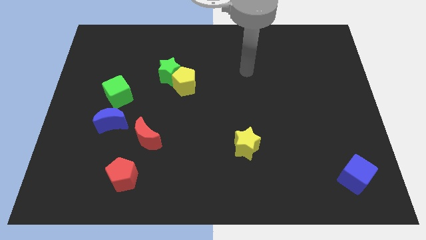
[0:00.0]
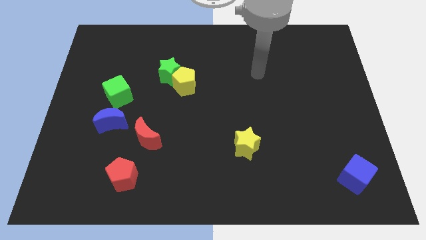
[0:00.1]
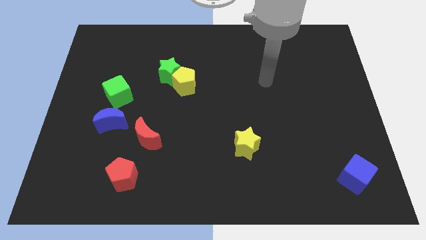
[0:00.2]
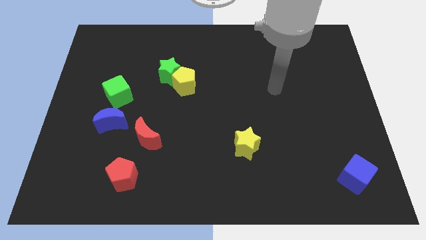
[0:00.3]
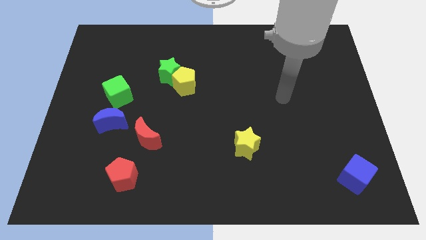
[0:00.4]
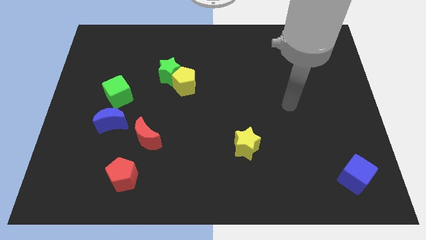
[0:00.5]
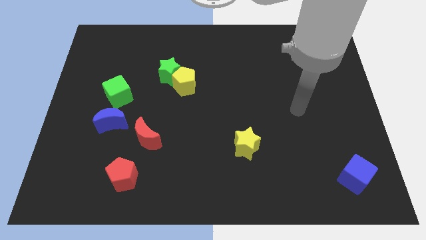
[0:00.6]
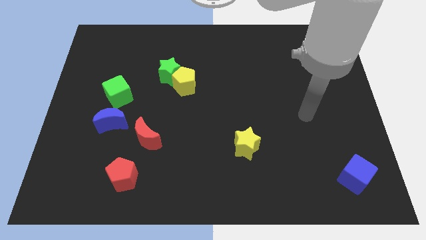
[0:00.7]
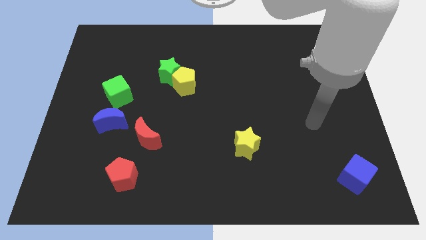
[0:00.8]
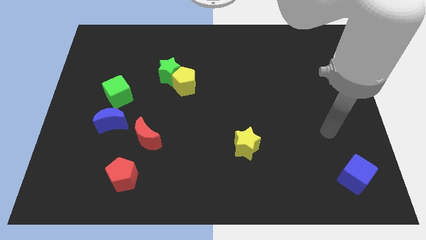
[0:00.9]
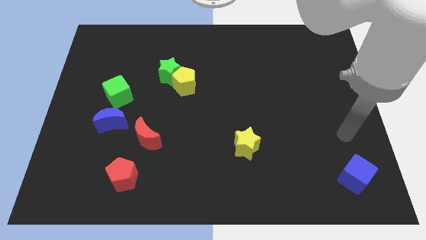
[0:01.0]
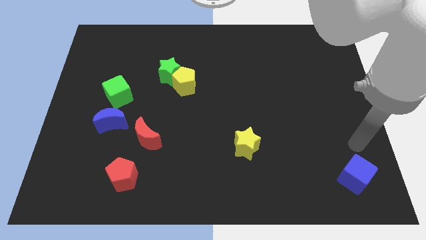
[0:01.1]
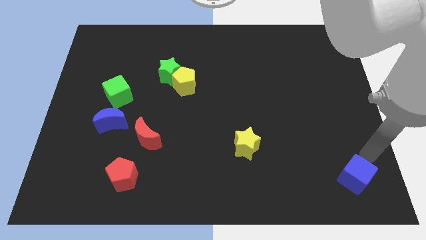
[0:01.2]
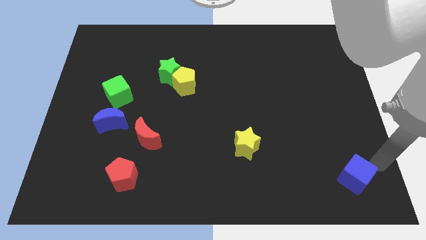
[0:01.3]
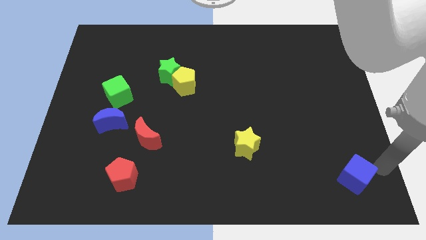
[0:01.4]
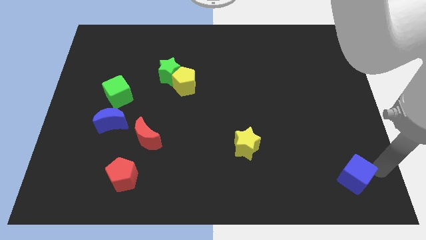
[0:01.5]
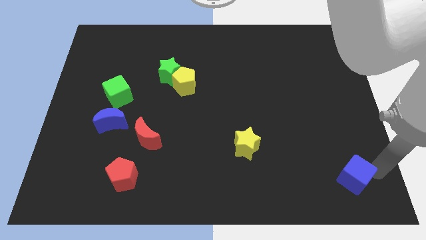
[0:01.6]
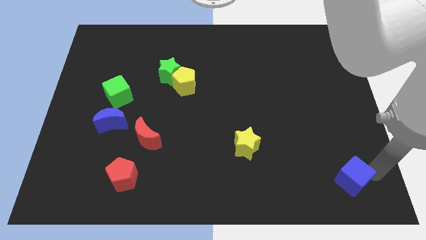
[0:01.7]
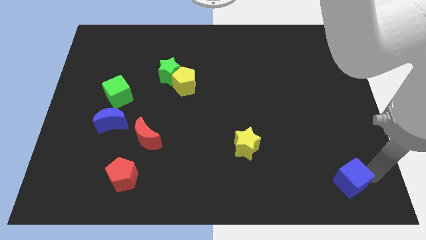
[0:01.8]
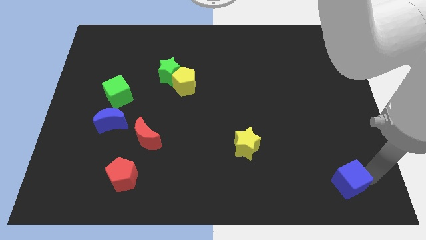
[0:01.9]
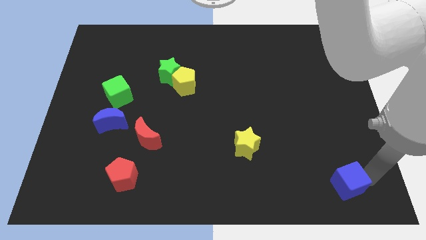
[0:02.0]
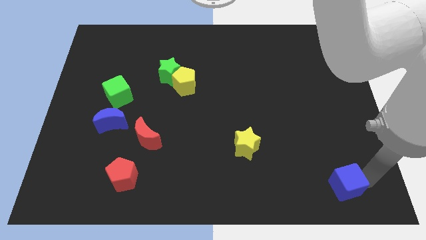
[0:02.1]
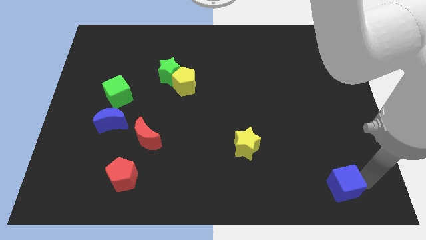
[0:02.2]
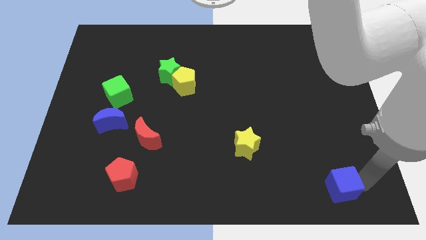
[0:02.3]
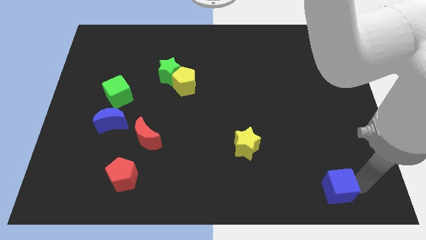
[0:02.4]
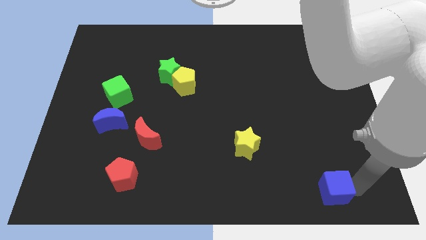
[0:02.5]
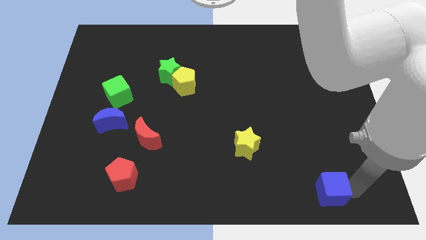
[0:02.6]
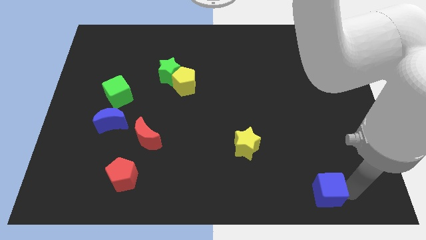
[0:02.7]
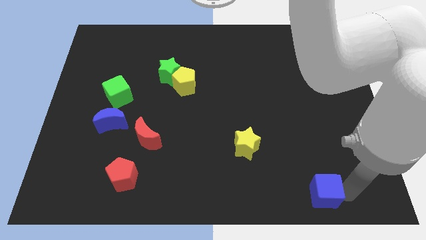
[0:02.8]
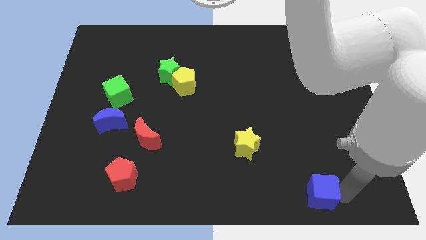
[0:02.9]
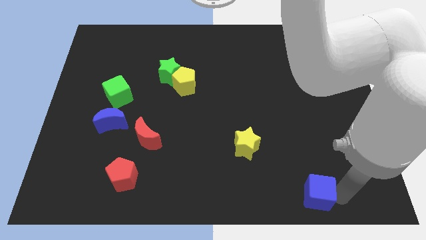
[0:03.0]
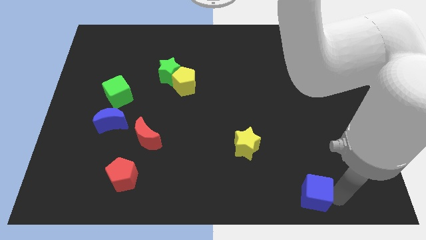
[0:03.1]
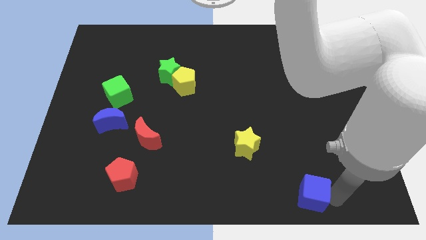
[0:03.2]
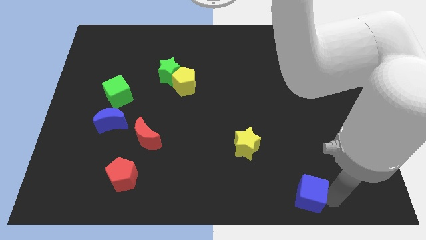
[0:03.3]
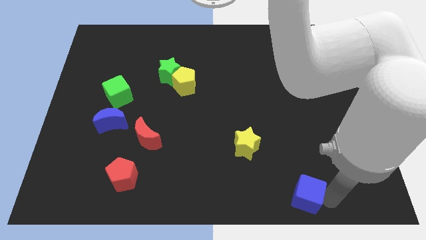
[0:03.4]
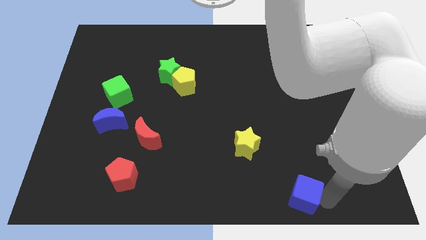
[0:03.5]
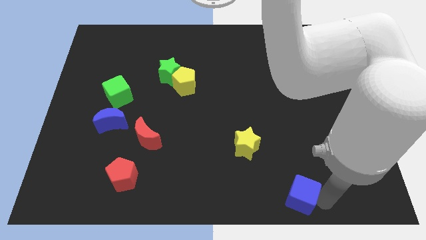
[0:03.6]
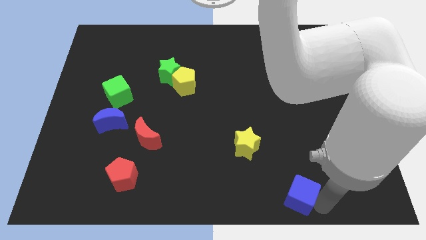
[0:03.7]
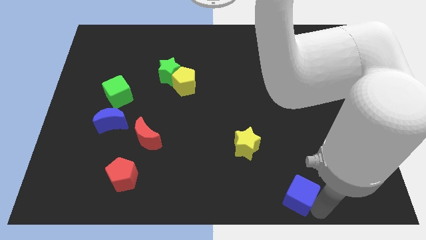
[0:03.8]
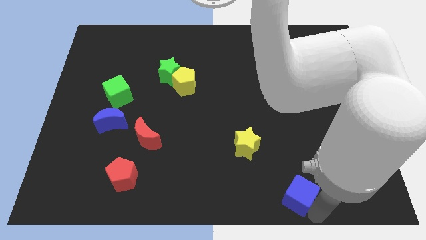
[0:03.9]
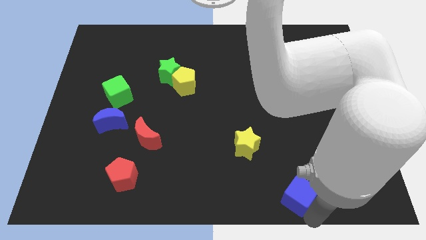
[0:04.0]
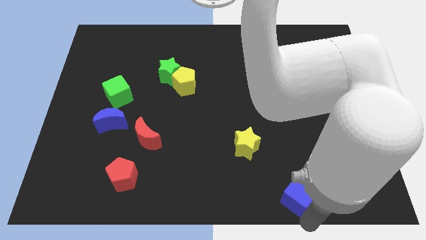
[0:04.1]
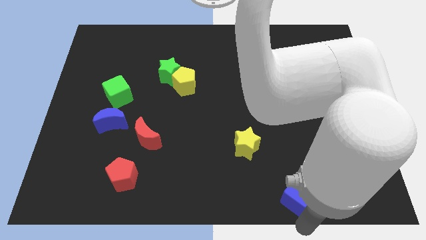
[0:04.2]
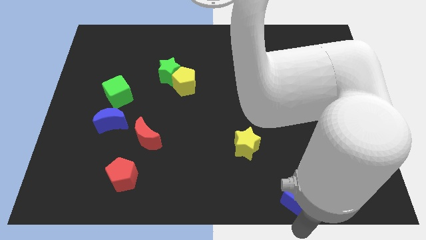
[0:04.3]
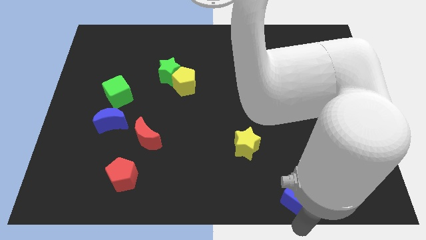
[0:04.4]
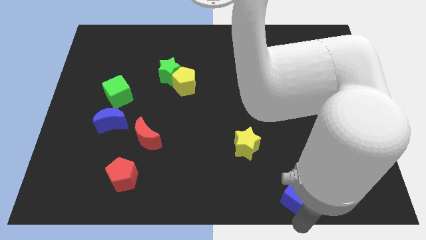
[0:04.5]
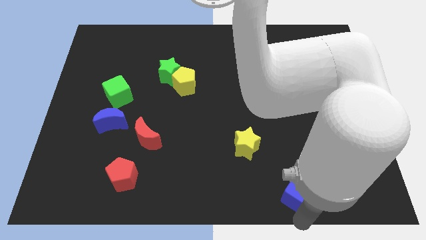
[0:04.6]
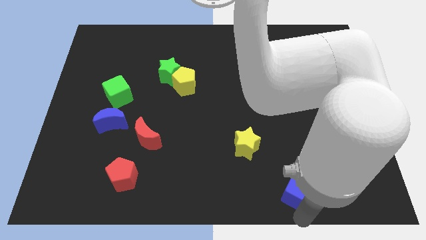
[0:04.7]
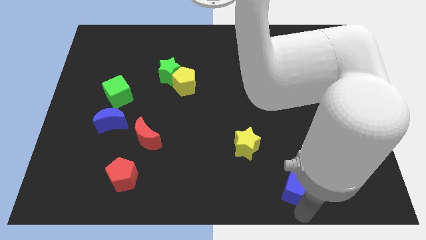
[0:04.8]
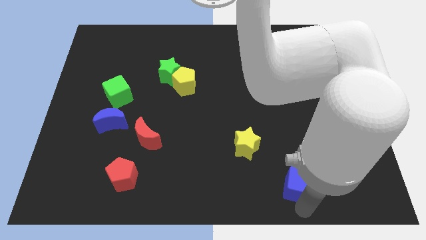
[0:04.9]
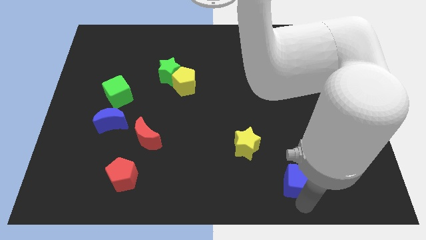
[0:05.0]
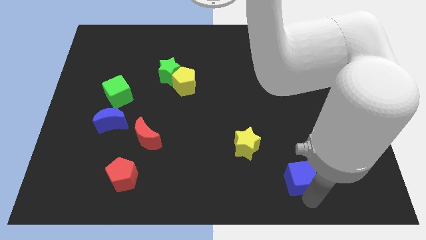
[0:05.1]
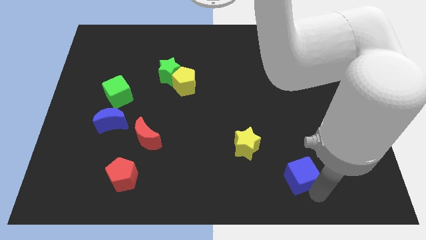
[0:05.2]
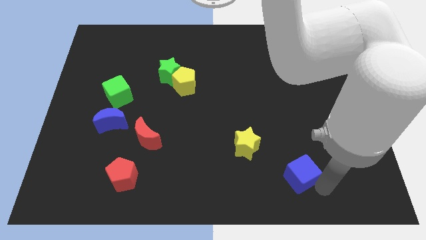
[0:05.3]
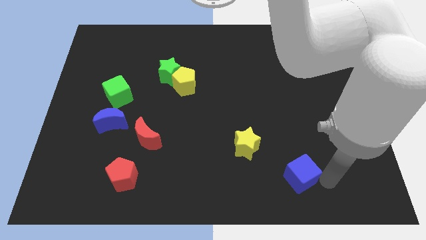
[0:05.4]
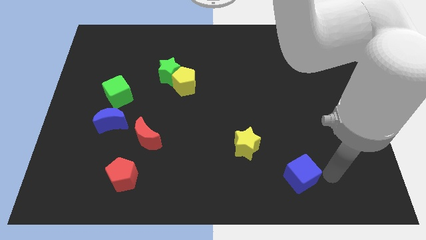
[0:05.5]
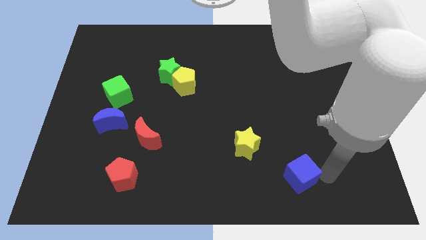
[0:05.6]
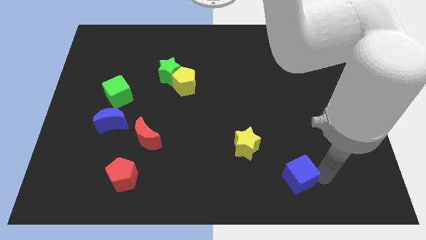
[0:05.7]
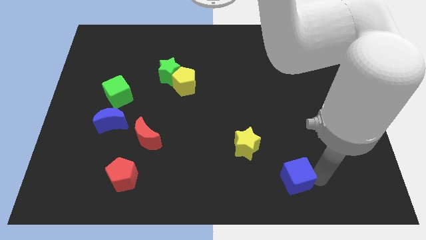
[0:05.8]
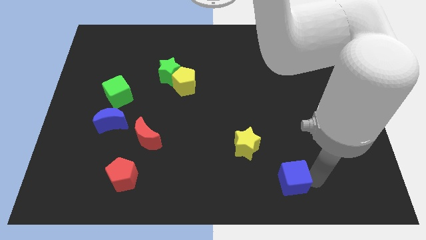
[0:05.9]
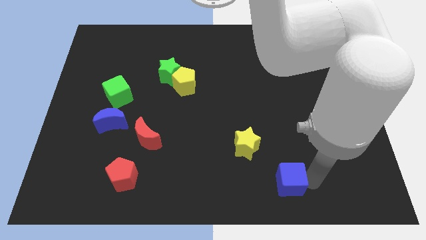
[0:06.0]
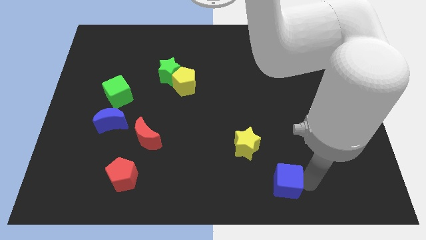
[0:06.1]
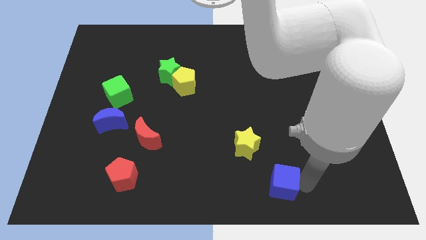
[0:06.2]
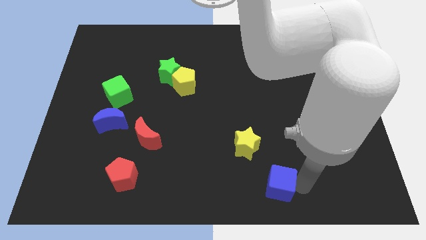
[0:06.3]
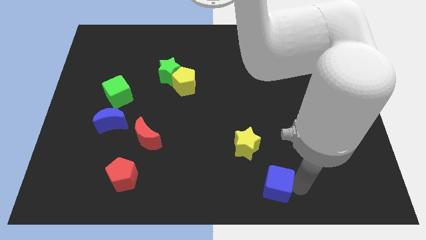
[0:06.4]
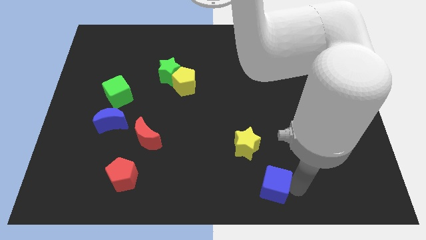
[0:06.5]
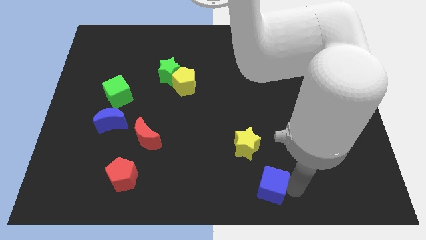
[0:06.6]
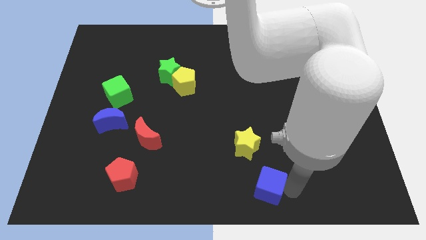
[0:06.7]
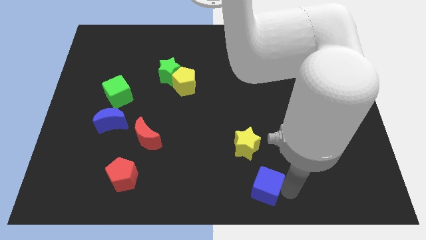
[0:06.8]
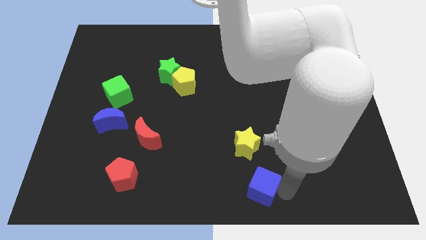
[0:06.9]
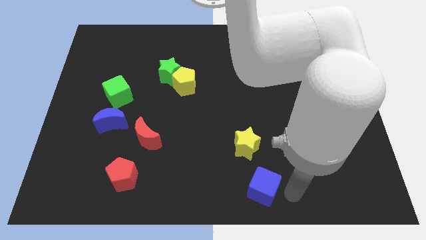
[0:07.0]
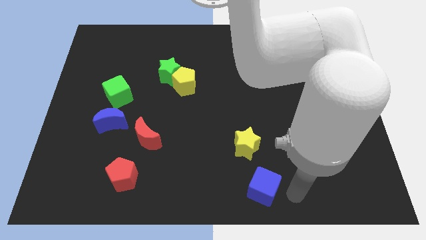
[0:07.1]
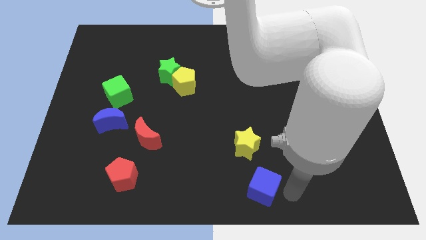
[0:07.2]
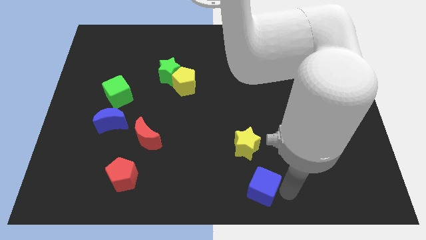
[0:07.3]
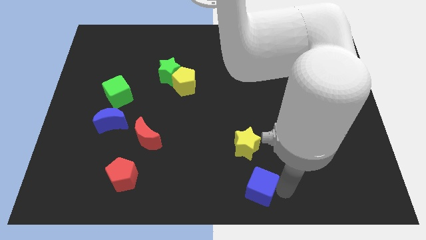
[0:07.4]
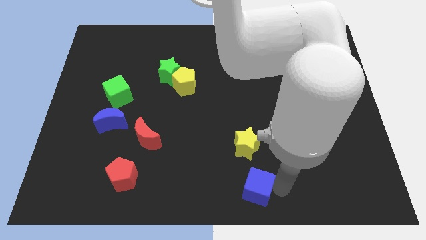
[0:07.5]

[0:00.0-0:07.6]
slide the blue cube to the left
